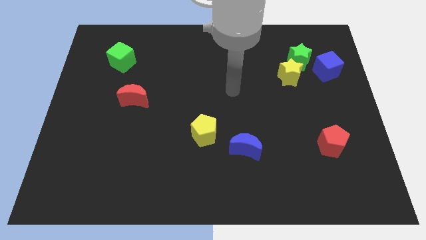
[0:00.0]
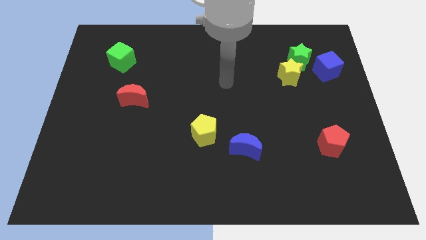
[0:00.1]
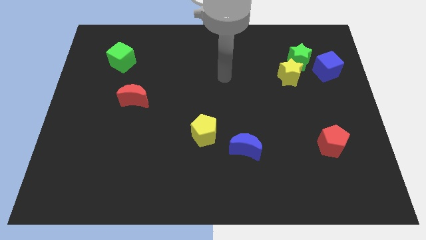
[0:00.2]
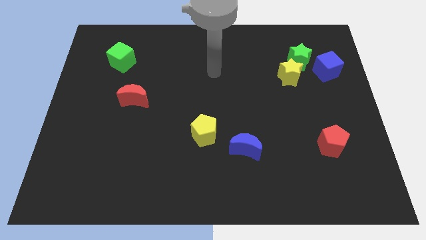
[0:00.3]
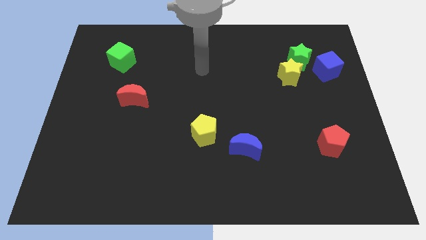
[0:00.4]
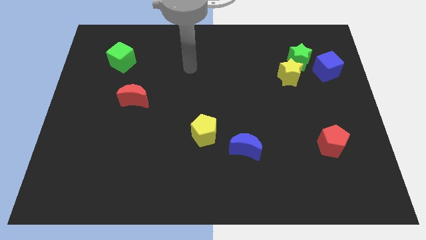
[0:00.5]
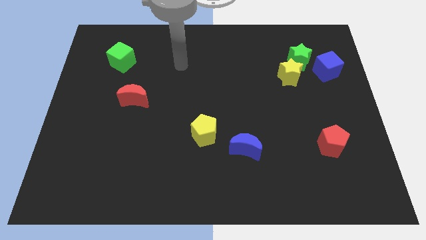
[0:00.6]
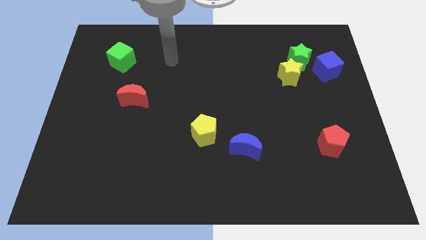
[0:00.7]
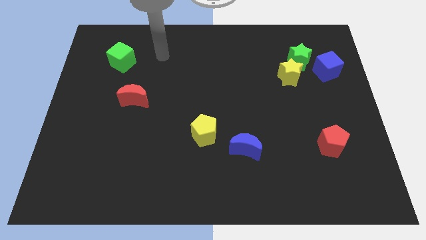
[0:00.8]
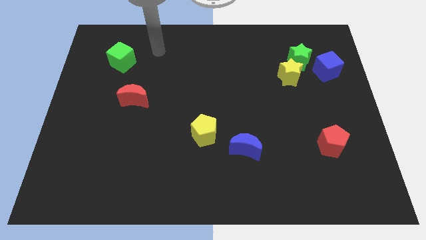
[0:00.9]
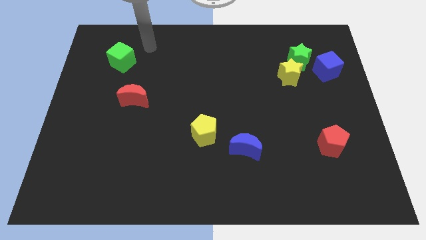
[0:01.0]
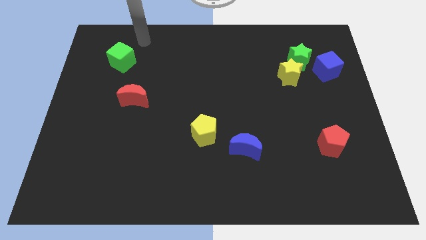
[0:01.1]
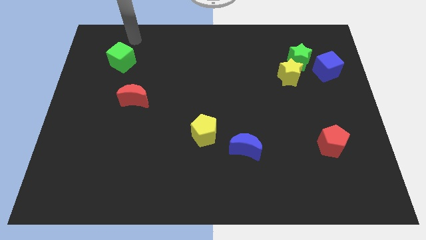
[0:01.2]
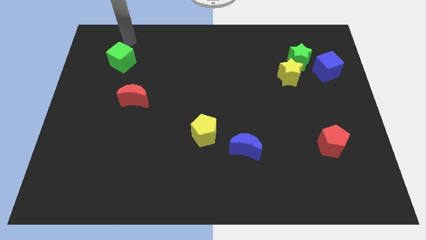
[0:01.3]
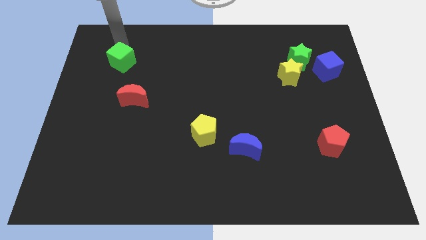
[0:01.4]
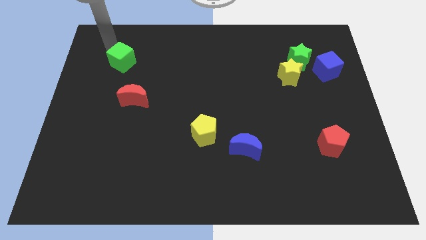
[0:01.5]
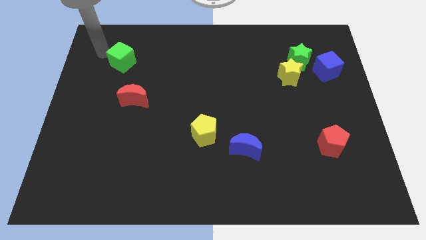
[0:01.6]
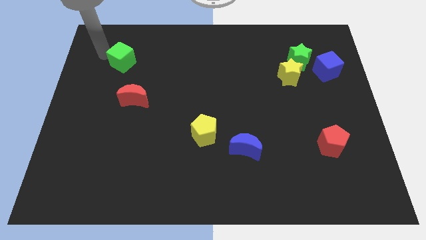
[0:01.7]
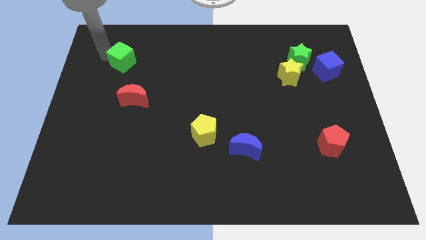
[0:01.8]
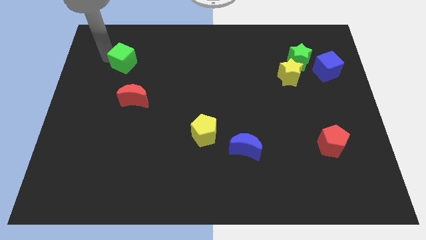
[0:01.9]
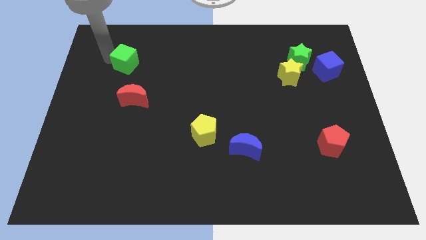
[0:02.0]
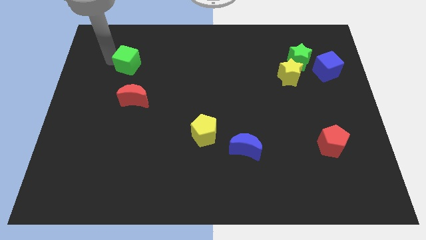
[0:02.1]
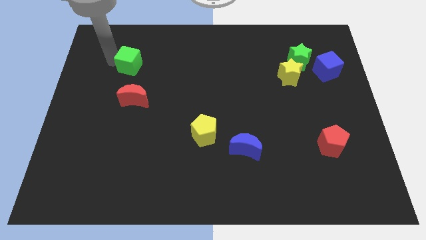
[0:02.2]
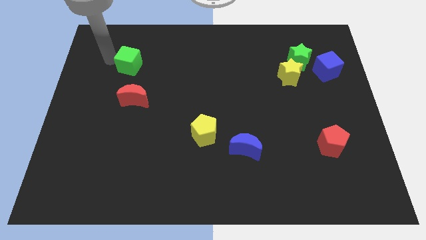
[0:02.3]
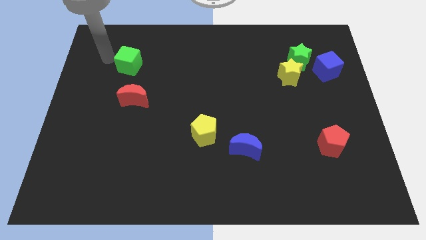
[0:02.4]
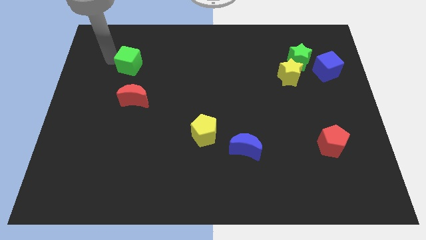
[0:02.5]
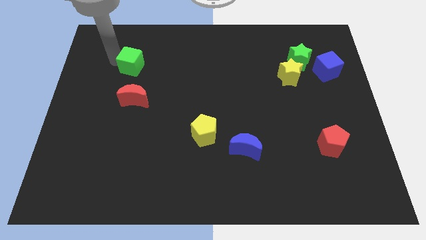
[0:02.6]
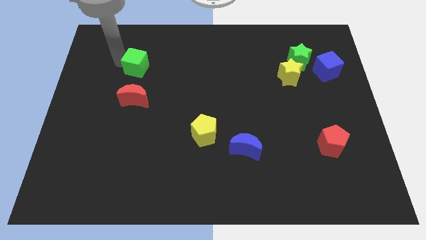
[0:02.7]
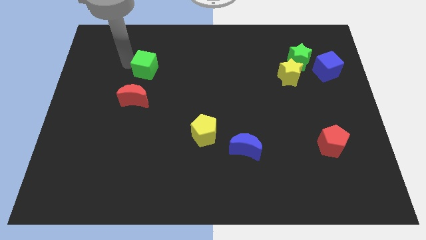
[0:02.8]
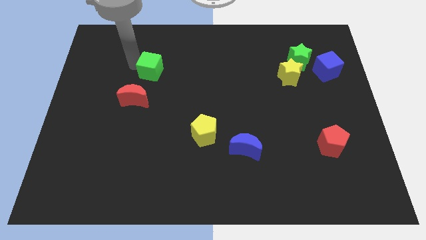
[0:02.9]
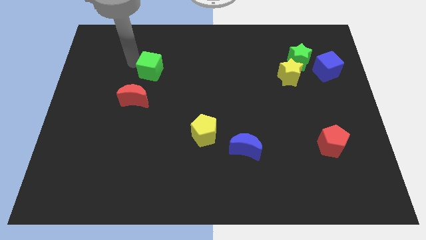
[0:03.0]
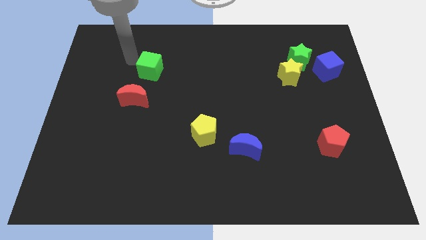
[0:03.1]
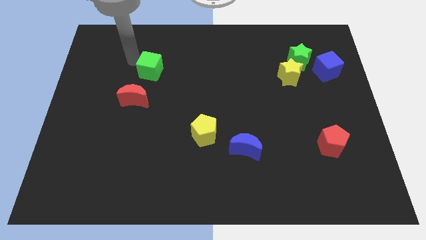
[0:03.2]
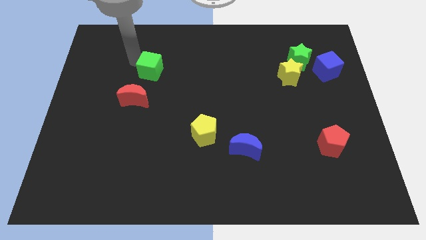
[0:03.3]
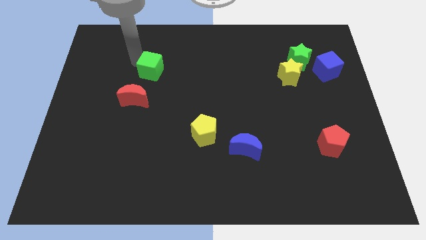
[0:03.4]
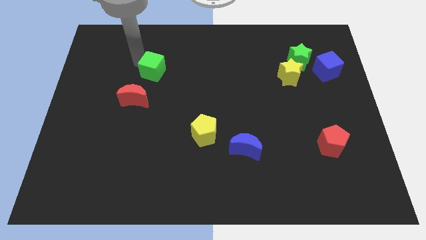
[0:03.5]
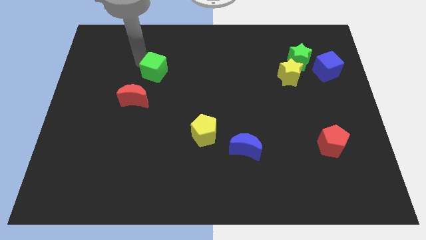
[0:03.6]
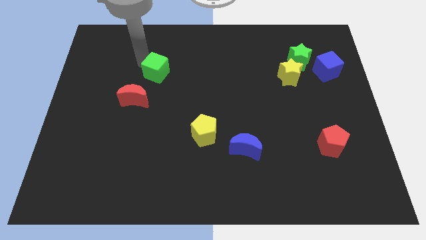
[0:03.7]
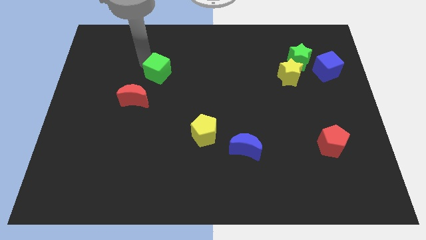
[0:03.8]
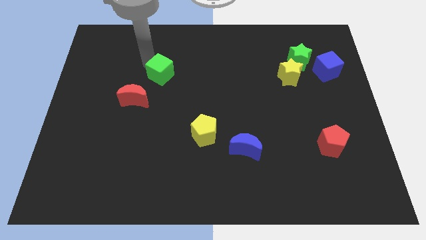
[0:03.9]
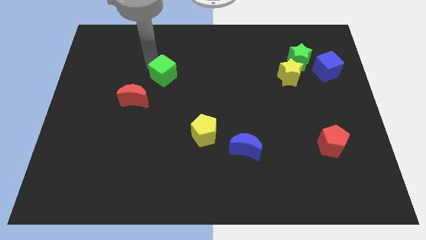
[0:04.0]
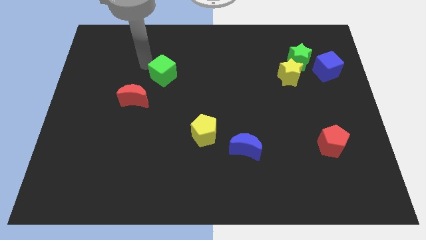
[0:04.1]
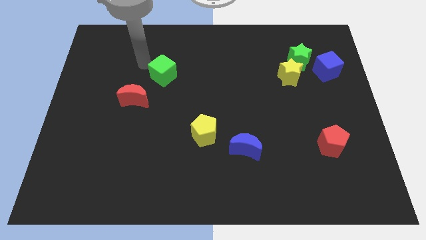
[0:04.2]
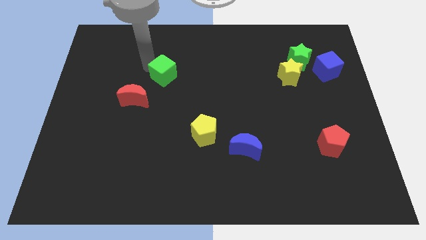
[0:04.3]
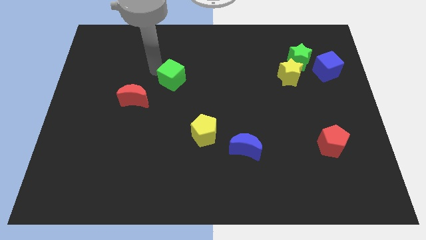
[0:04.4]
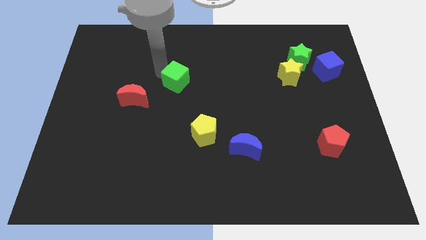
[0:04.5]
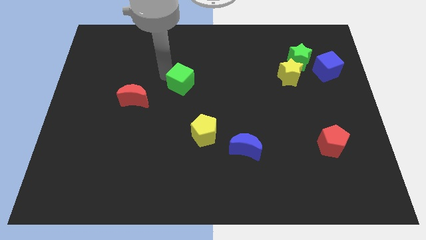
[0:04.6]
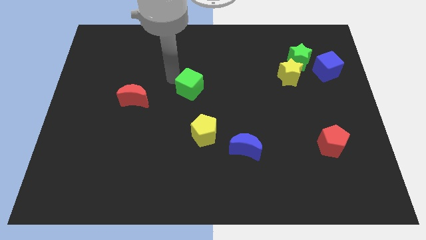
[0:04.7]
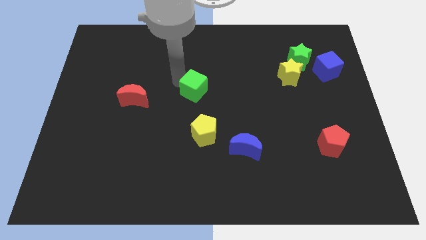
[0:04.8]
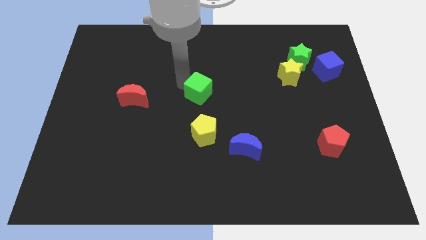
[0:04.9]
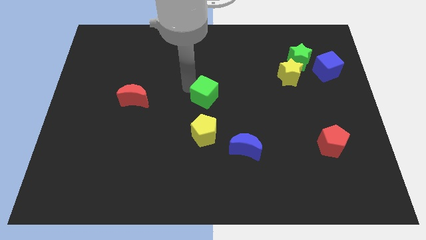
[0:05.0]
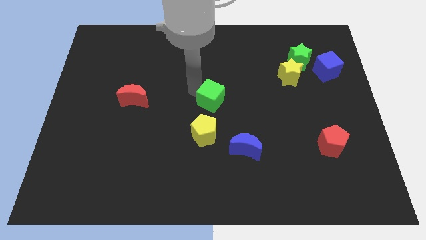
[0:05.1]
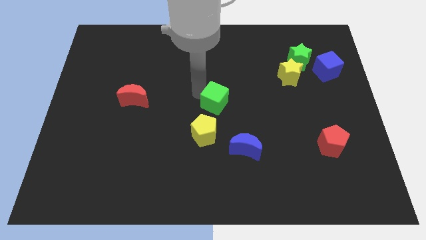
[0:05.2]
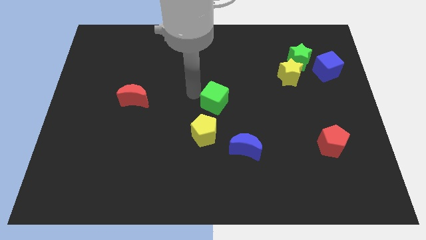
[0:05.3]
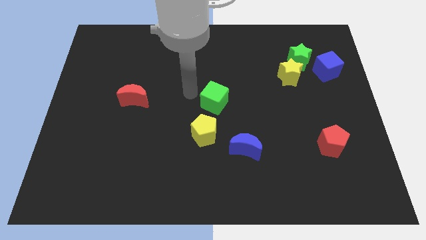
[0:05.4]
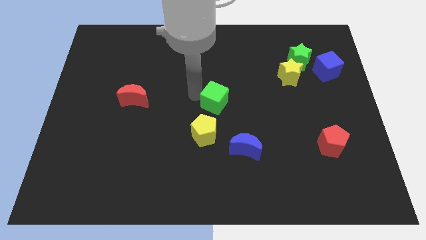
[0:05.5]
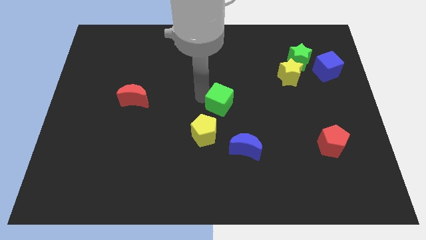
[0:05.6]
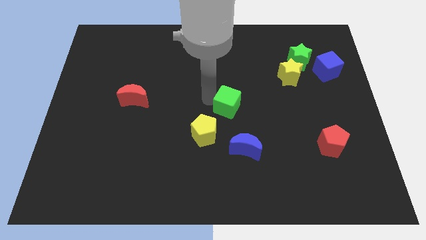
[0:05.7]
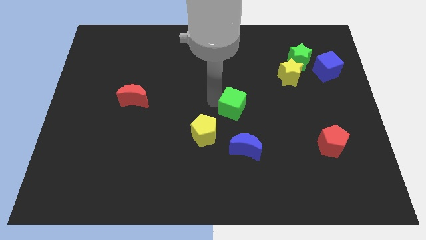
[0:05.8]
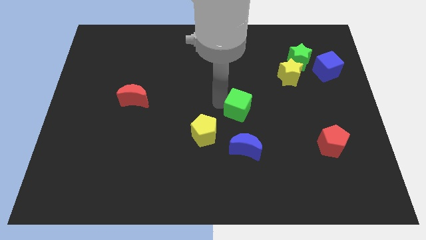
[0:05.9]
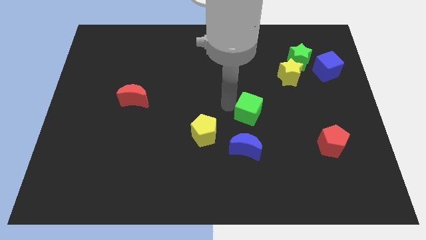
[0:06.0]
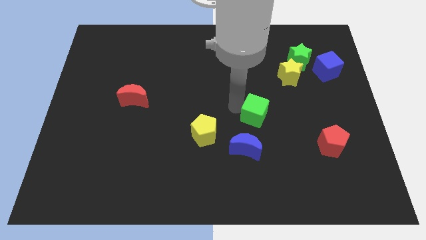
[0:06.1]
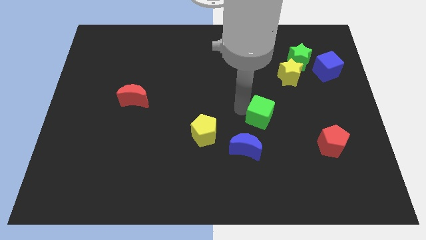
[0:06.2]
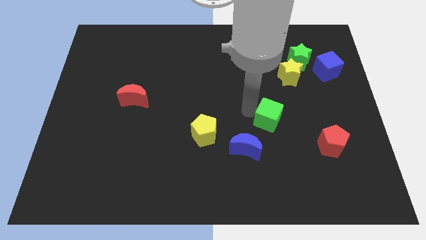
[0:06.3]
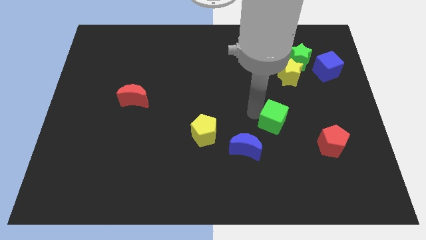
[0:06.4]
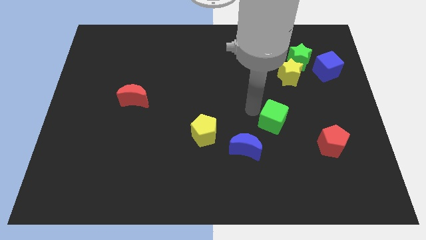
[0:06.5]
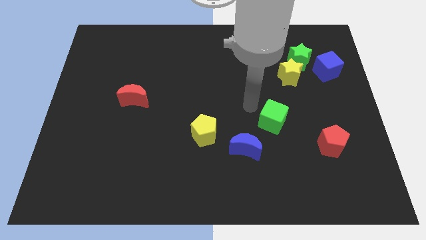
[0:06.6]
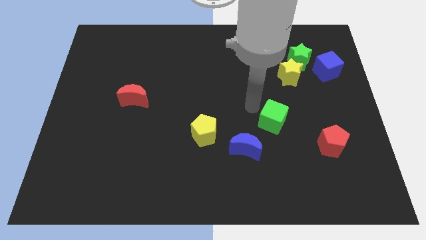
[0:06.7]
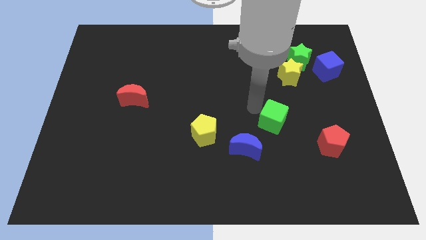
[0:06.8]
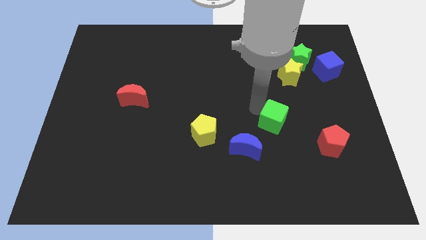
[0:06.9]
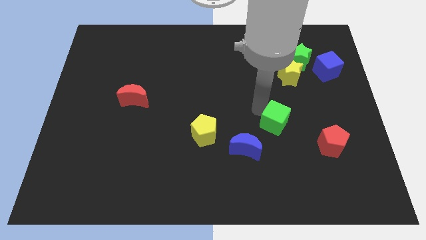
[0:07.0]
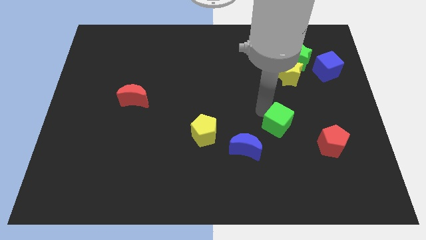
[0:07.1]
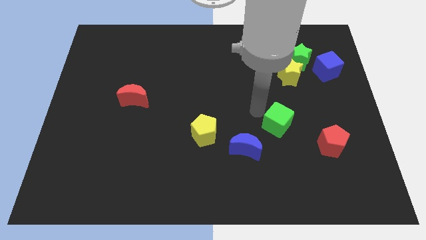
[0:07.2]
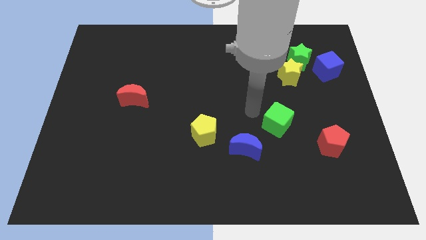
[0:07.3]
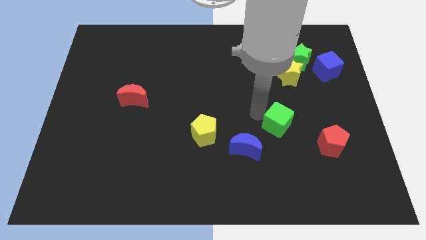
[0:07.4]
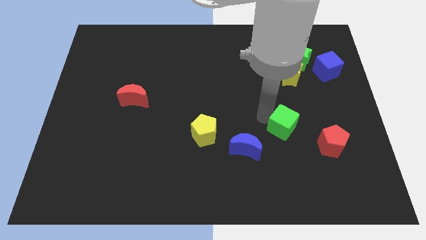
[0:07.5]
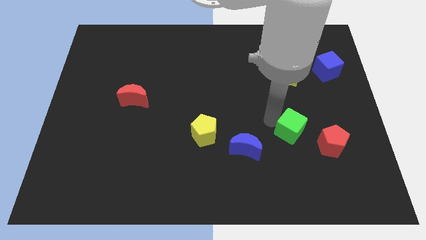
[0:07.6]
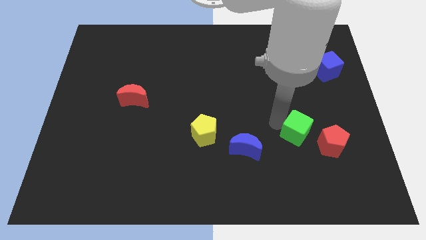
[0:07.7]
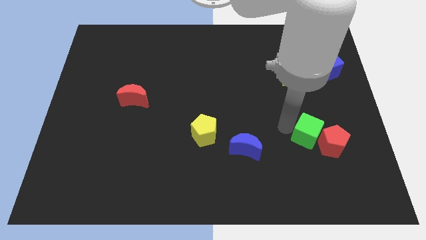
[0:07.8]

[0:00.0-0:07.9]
slide the green cube to the red pentagon
